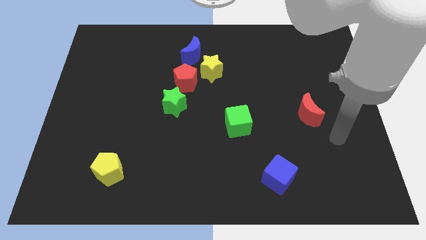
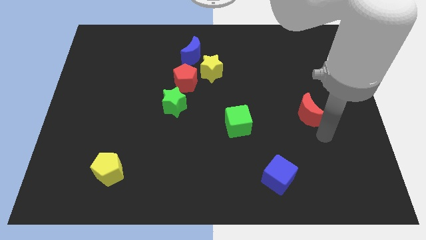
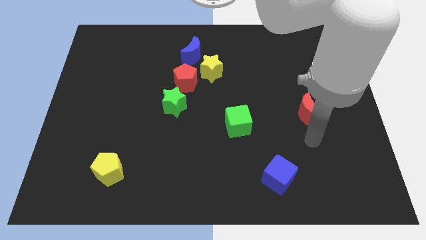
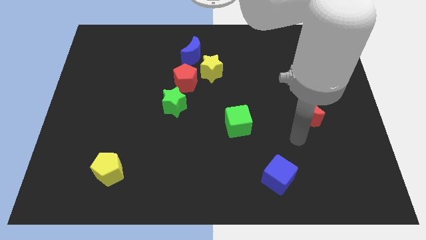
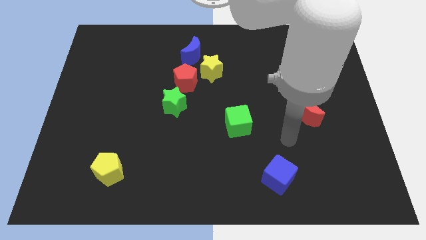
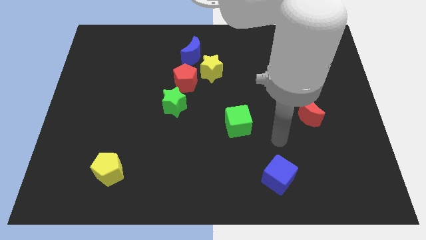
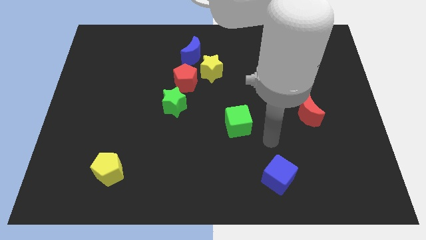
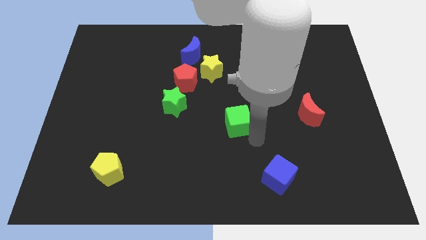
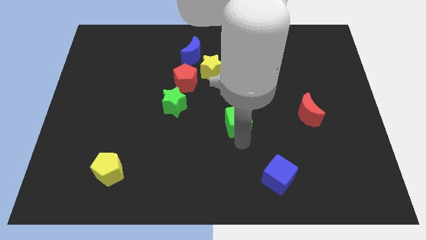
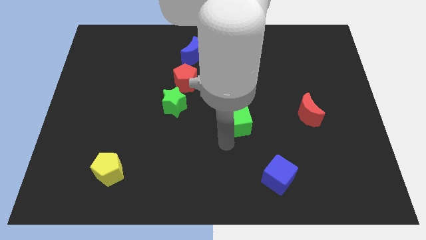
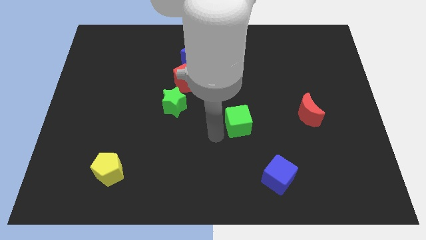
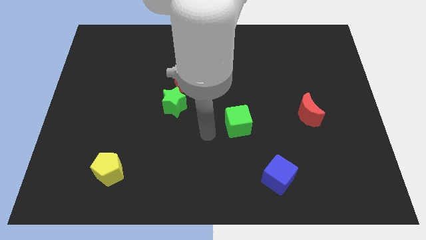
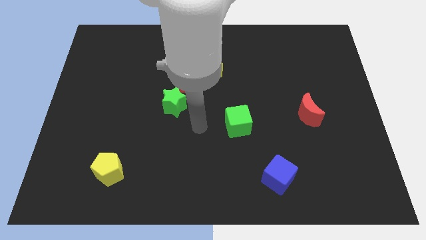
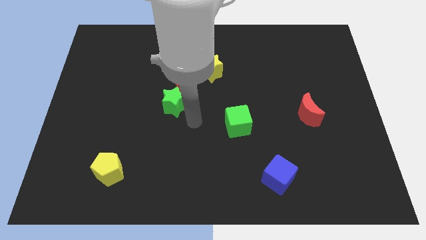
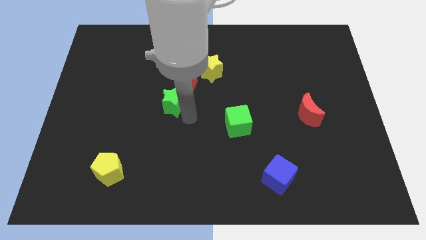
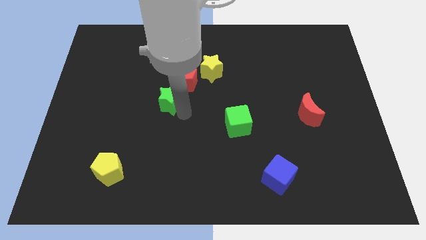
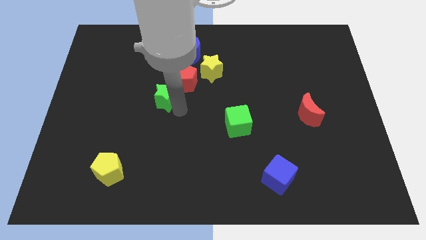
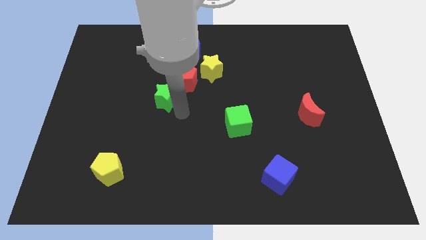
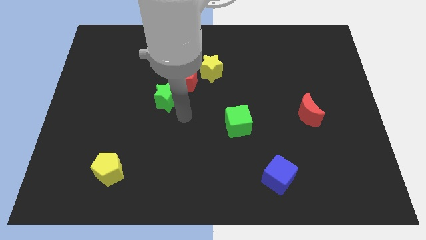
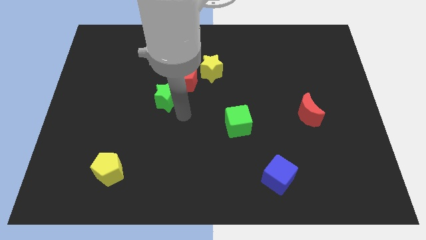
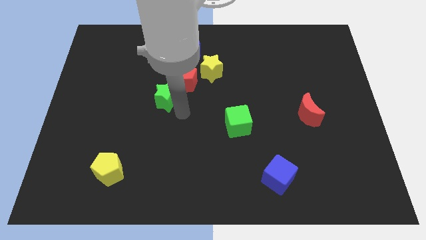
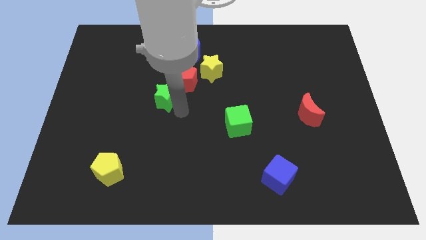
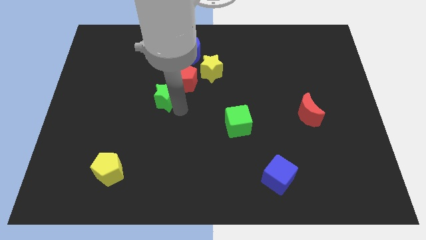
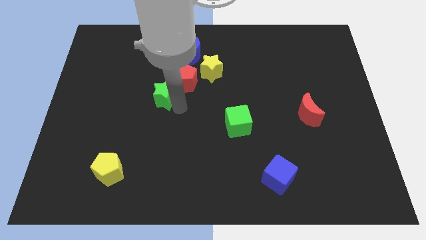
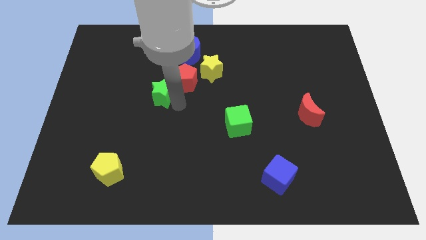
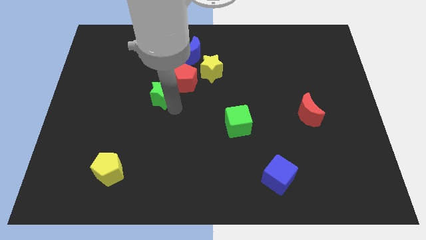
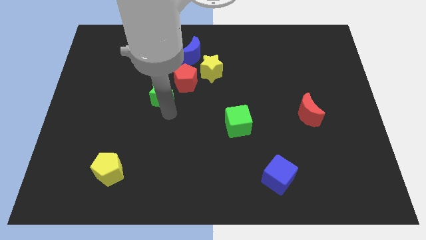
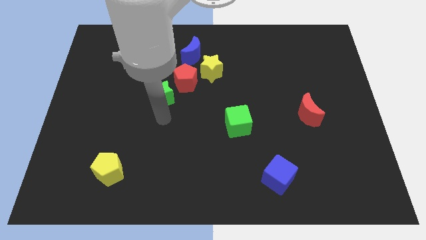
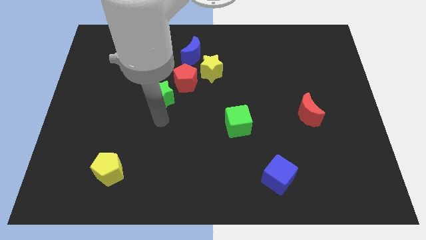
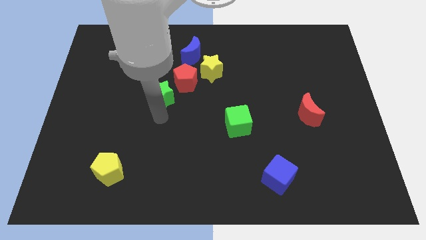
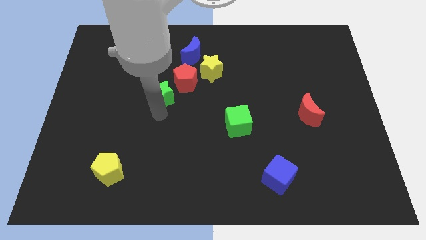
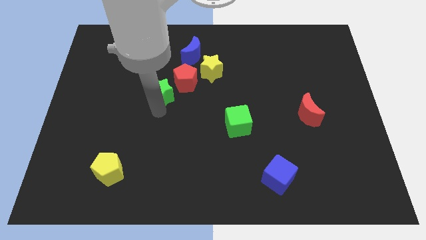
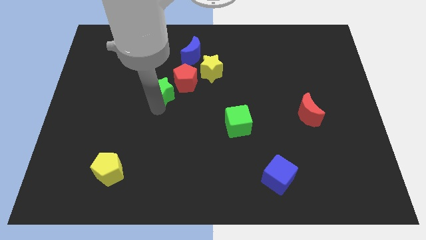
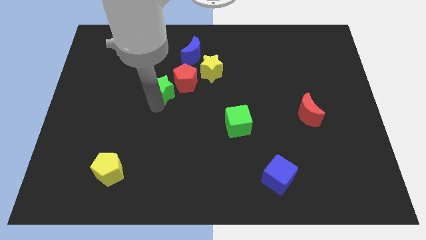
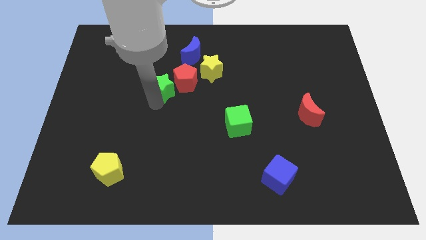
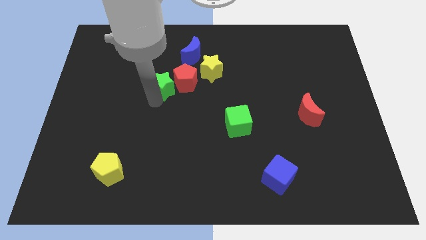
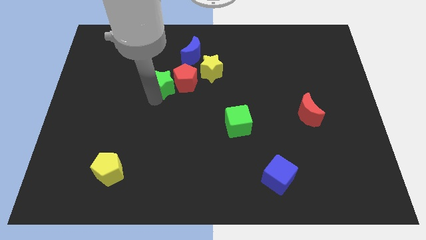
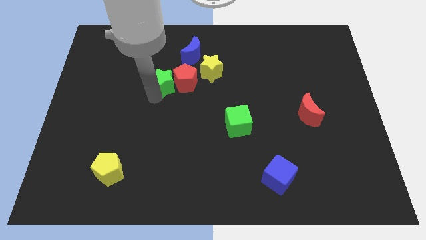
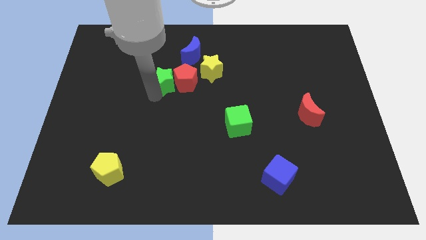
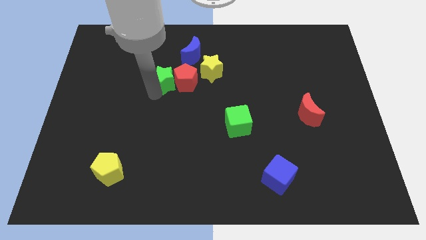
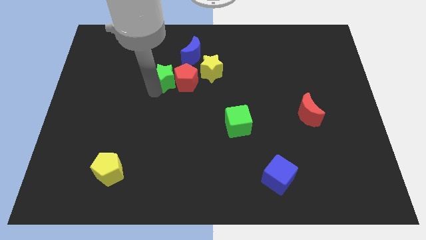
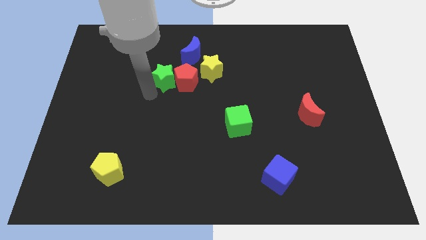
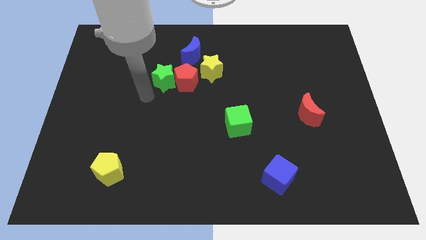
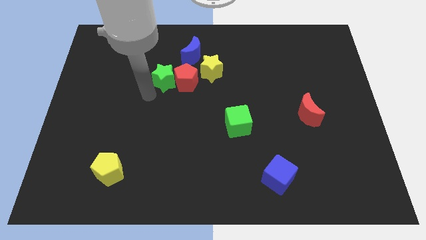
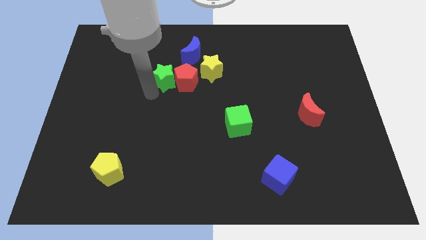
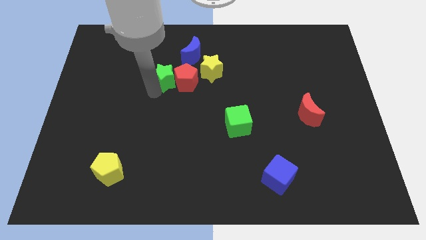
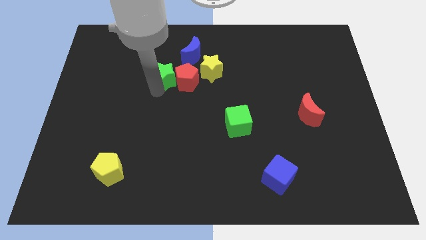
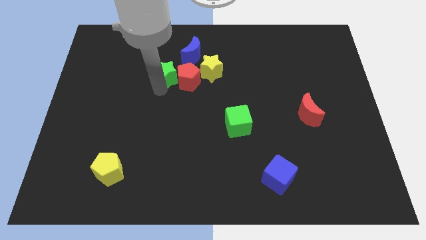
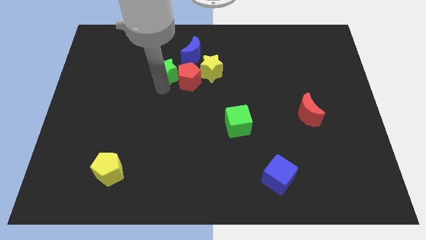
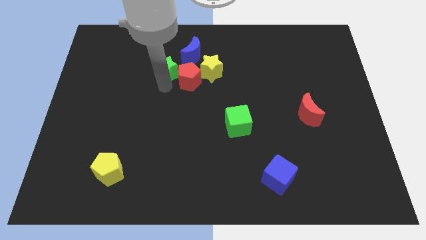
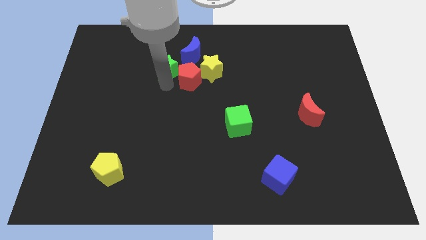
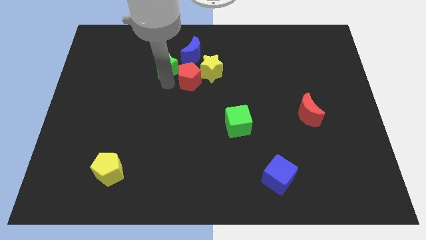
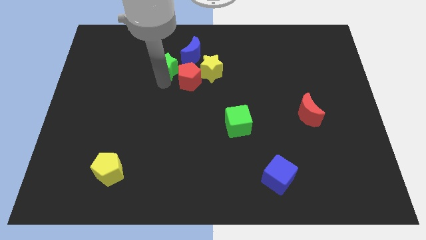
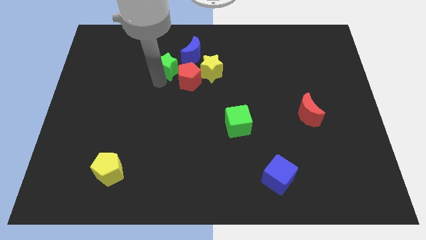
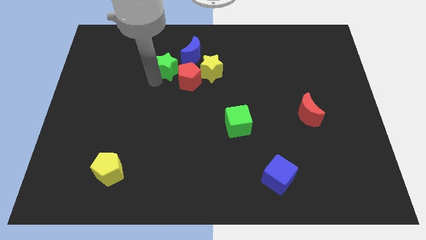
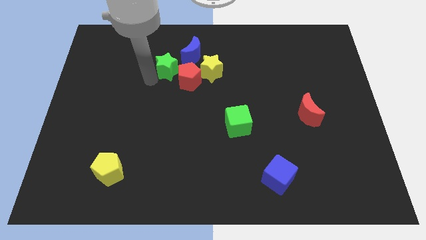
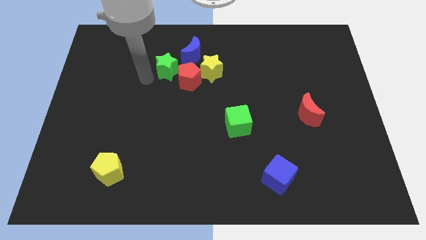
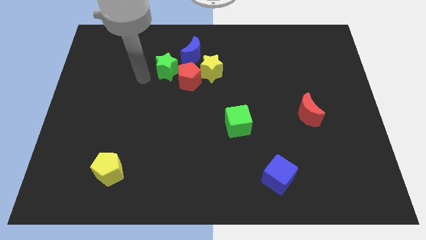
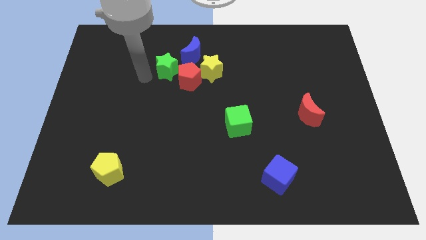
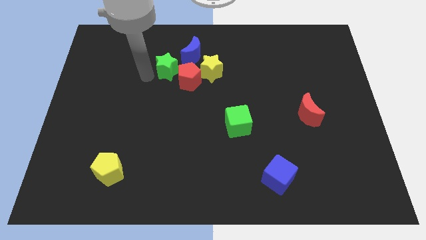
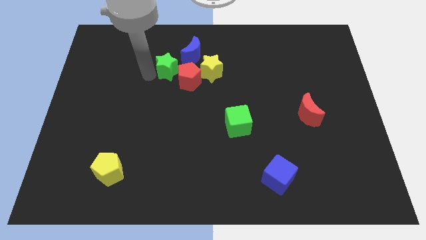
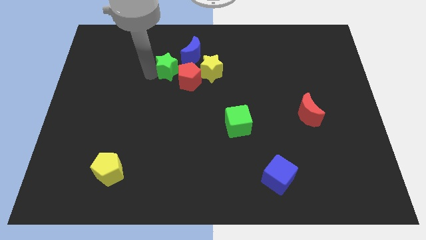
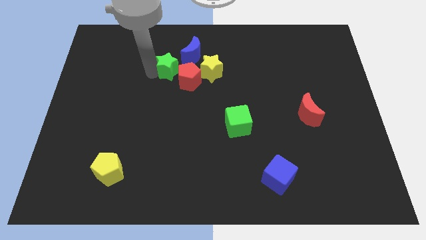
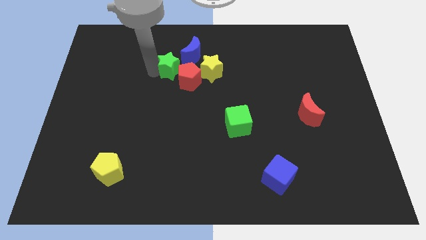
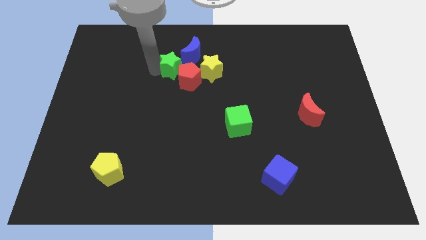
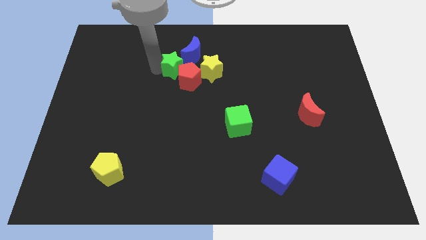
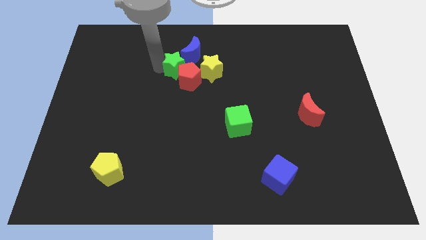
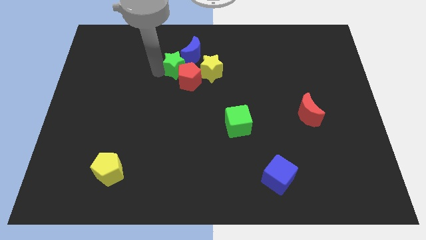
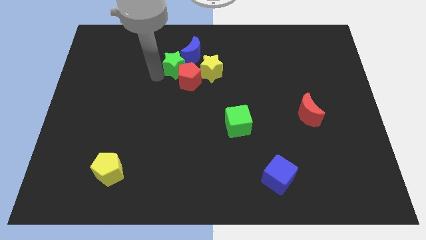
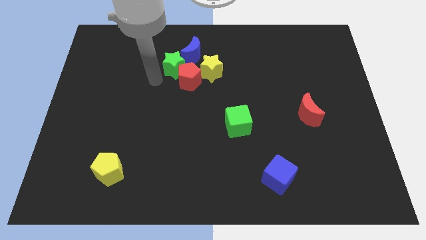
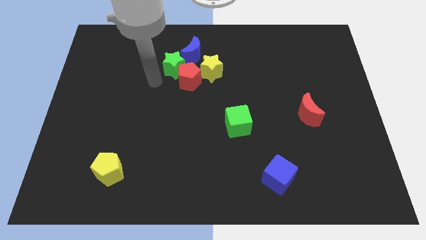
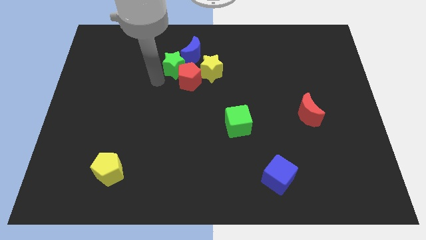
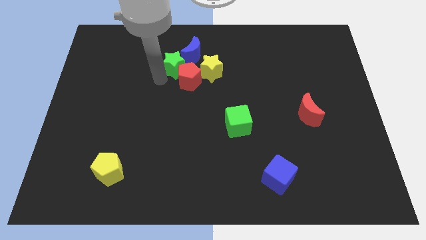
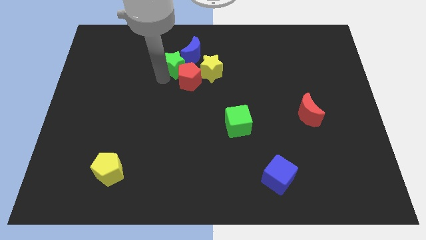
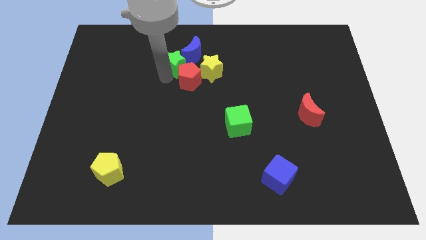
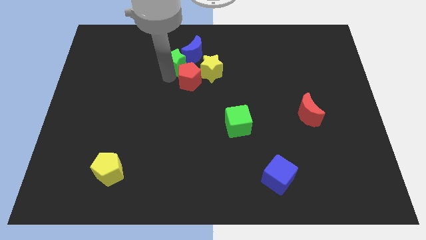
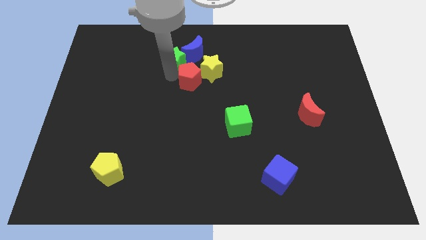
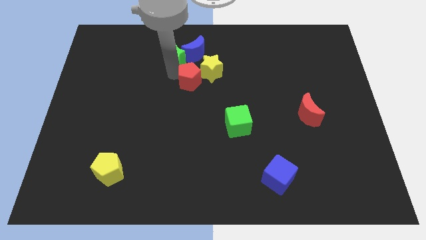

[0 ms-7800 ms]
push the green star next to the blue moon
